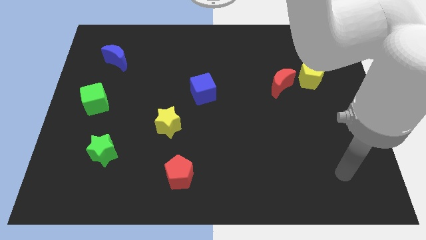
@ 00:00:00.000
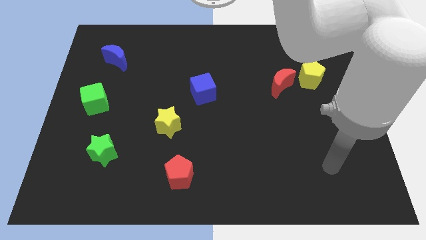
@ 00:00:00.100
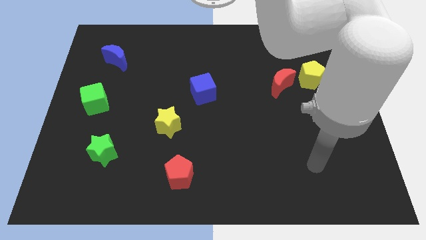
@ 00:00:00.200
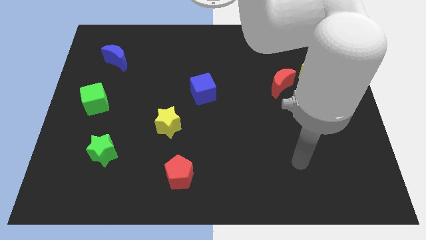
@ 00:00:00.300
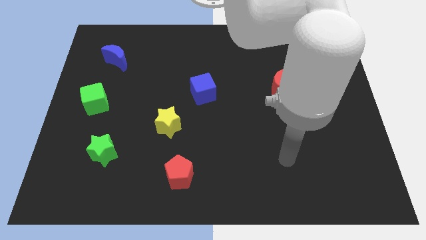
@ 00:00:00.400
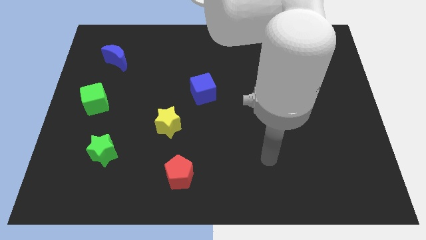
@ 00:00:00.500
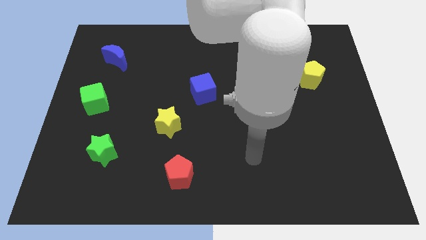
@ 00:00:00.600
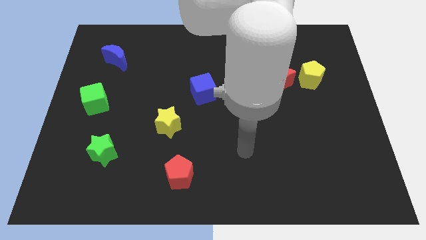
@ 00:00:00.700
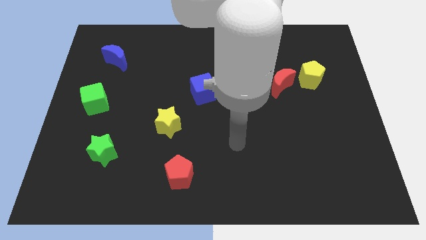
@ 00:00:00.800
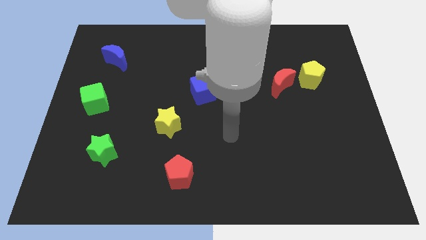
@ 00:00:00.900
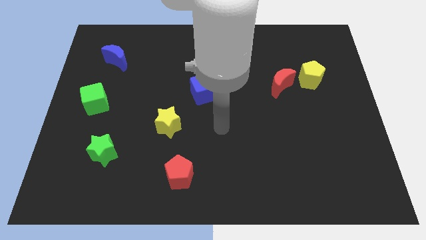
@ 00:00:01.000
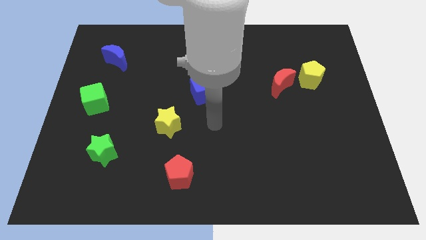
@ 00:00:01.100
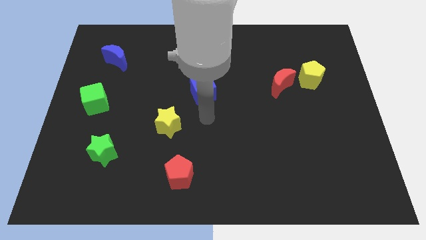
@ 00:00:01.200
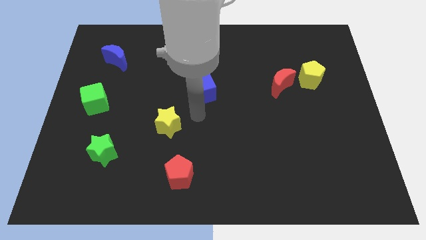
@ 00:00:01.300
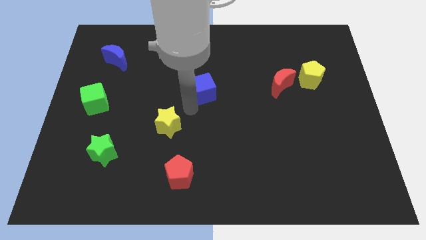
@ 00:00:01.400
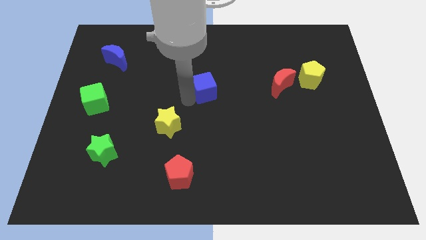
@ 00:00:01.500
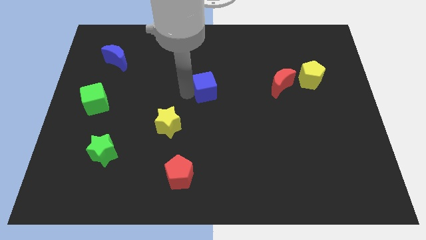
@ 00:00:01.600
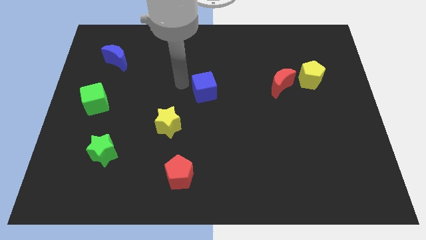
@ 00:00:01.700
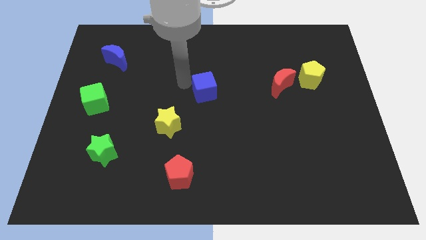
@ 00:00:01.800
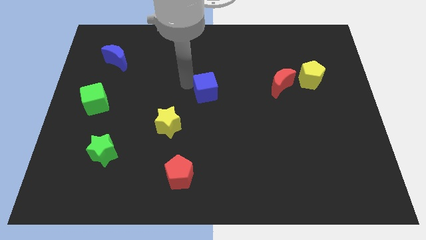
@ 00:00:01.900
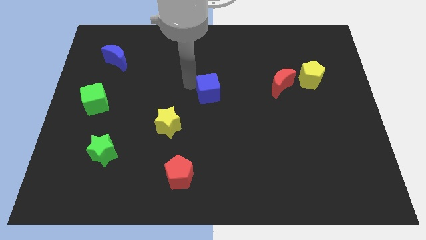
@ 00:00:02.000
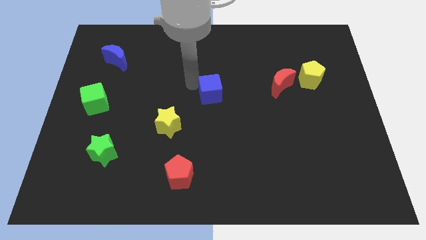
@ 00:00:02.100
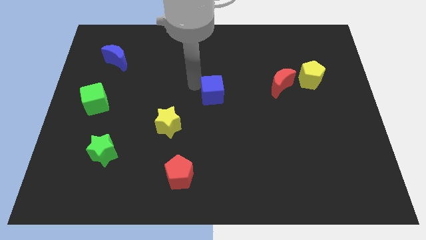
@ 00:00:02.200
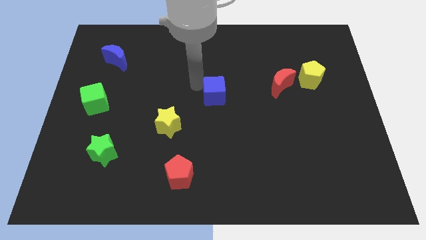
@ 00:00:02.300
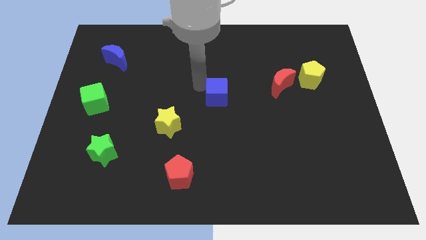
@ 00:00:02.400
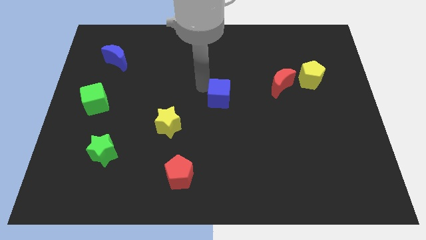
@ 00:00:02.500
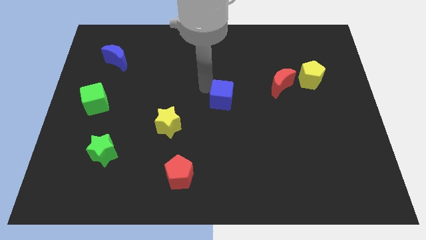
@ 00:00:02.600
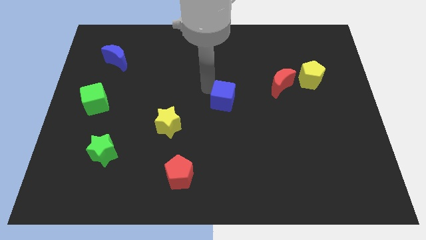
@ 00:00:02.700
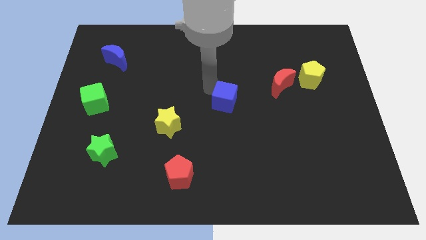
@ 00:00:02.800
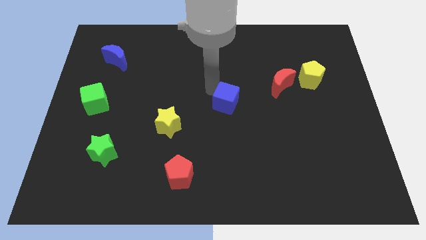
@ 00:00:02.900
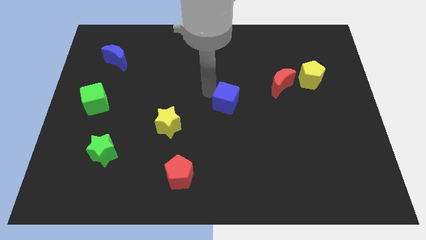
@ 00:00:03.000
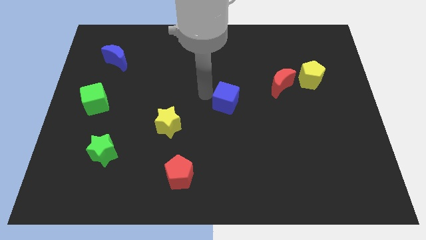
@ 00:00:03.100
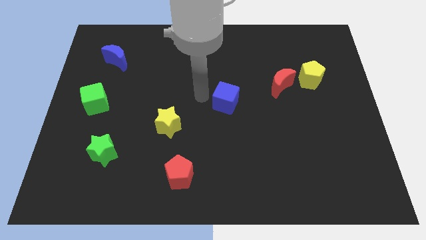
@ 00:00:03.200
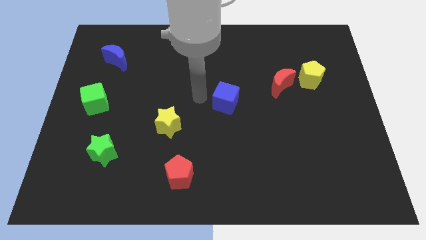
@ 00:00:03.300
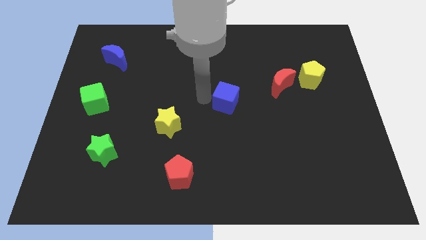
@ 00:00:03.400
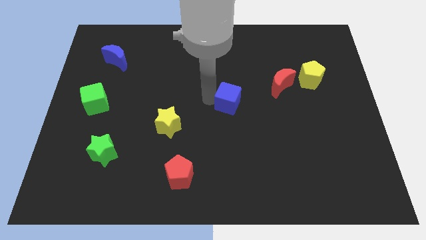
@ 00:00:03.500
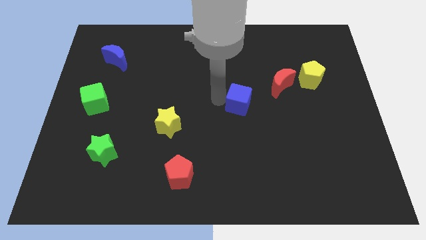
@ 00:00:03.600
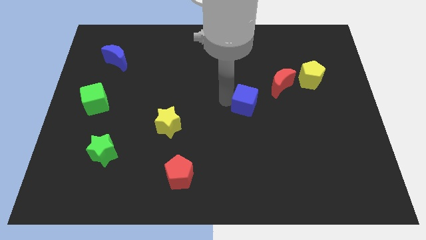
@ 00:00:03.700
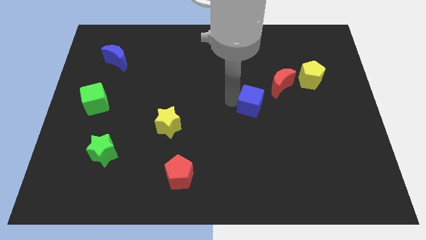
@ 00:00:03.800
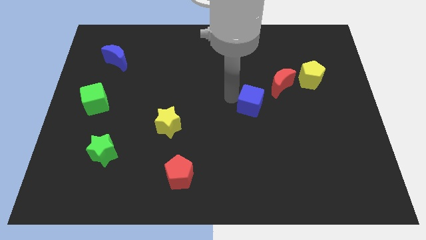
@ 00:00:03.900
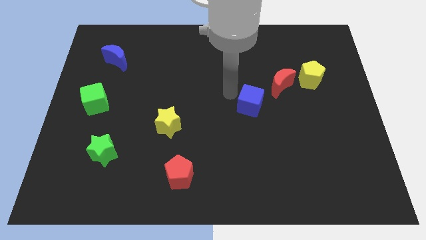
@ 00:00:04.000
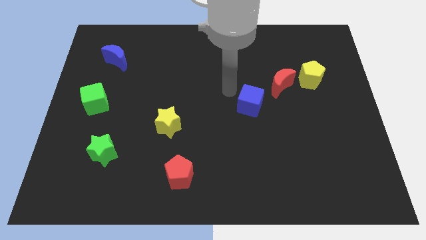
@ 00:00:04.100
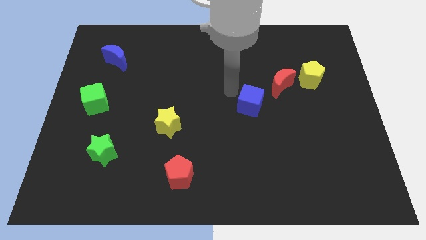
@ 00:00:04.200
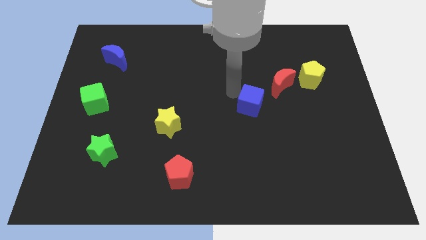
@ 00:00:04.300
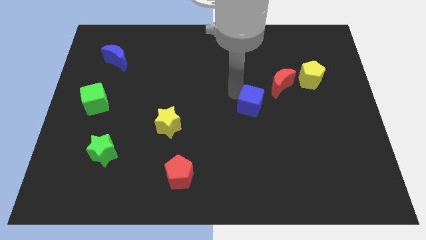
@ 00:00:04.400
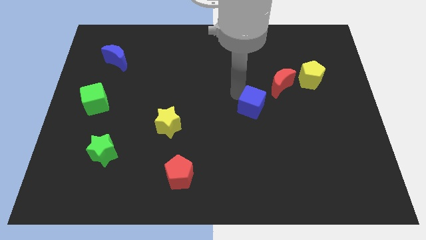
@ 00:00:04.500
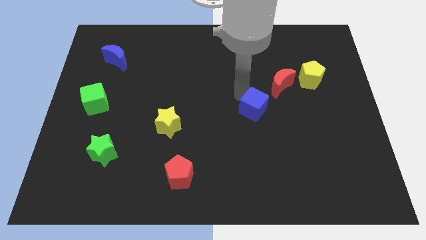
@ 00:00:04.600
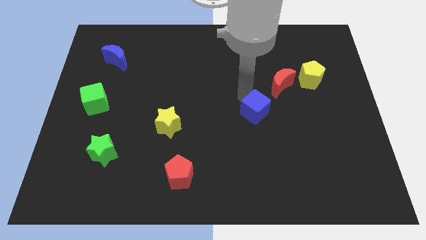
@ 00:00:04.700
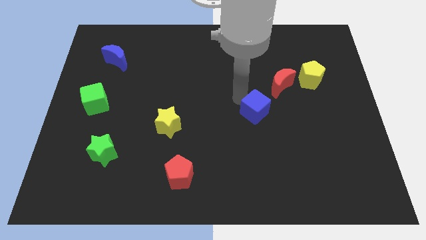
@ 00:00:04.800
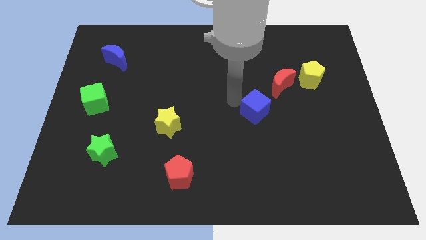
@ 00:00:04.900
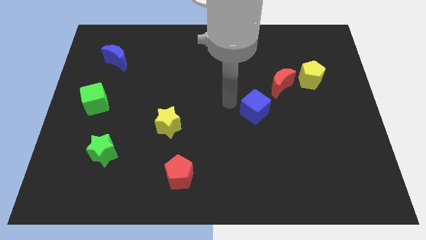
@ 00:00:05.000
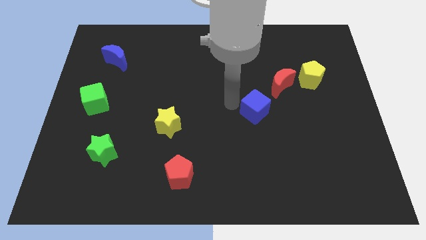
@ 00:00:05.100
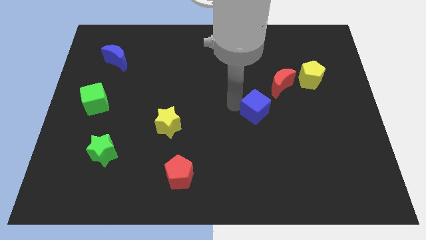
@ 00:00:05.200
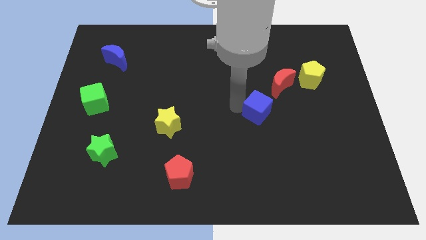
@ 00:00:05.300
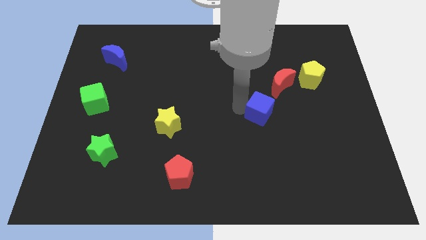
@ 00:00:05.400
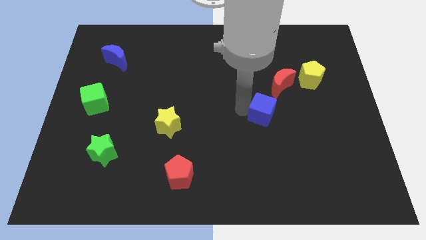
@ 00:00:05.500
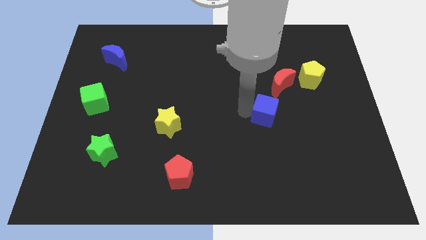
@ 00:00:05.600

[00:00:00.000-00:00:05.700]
slide the blue cube to the bottom side of the red moon

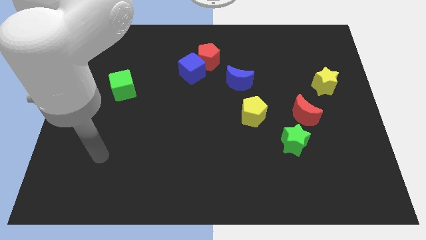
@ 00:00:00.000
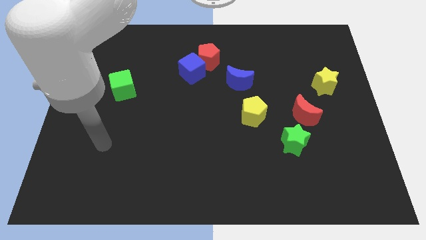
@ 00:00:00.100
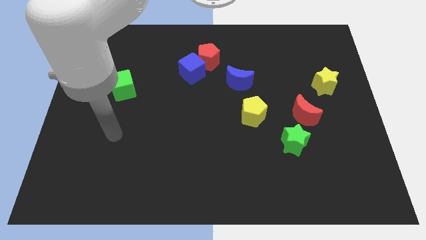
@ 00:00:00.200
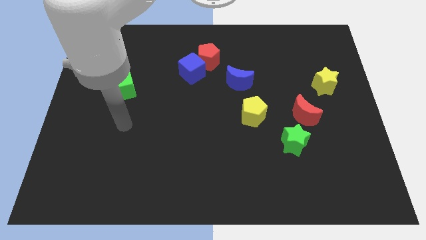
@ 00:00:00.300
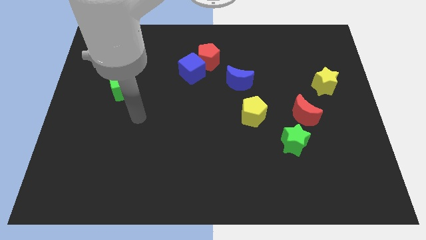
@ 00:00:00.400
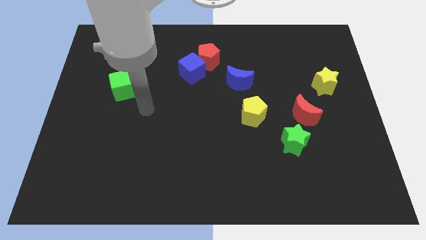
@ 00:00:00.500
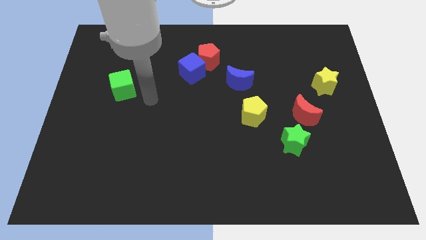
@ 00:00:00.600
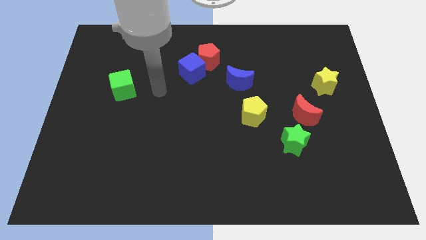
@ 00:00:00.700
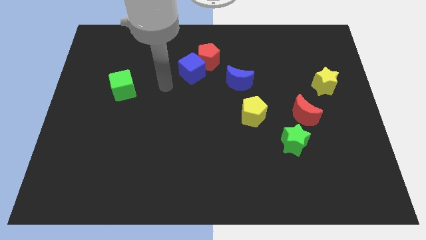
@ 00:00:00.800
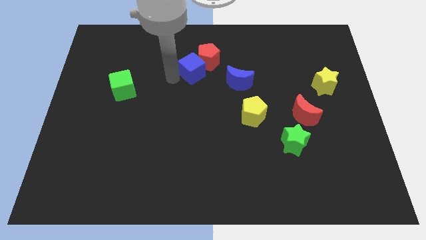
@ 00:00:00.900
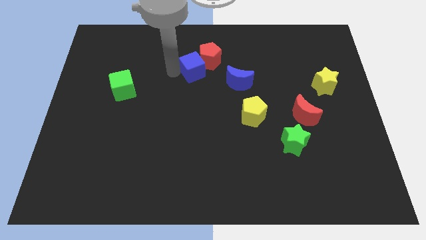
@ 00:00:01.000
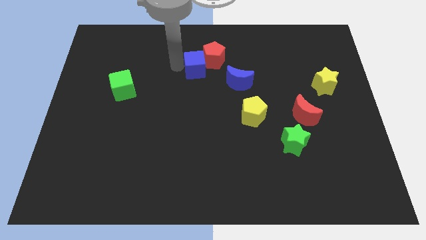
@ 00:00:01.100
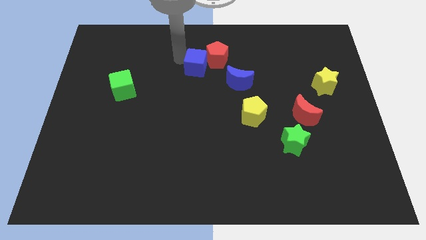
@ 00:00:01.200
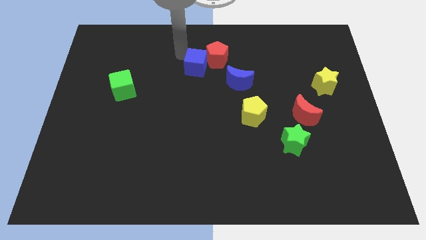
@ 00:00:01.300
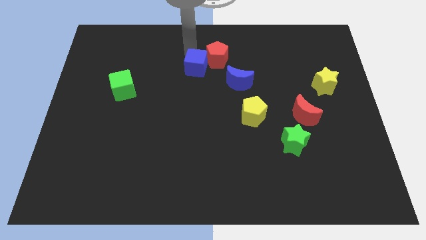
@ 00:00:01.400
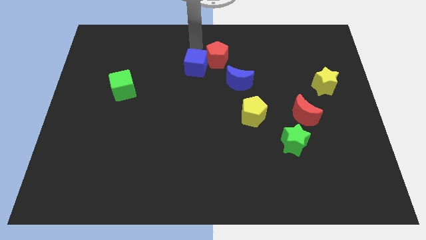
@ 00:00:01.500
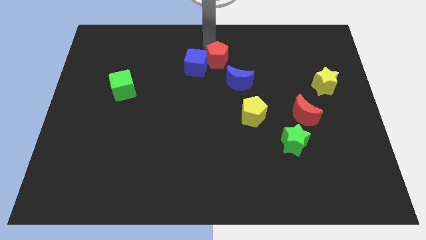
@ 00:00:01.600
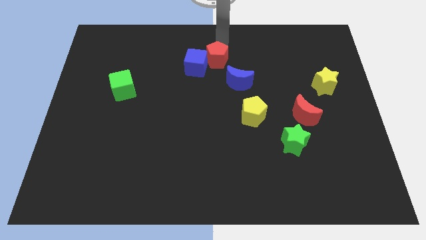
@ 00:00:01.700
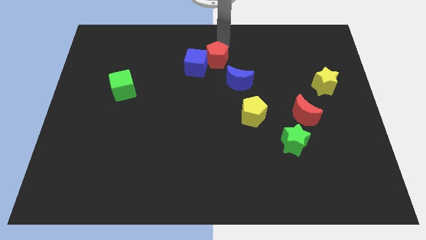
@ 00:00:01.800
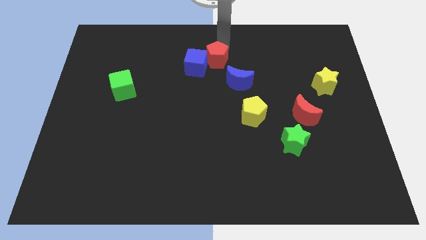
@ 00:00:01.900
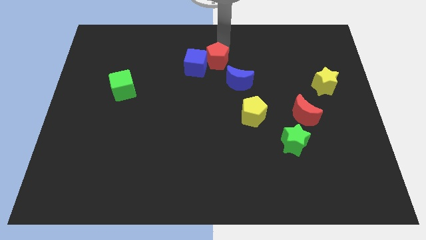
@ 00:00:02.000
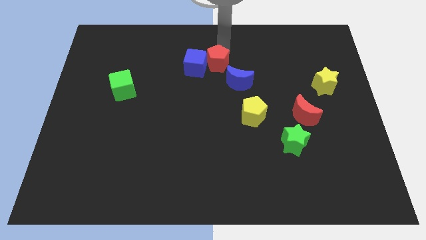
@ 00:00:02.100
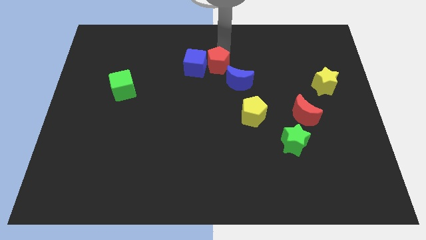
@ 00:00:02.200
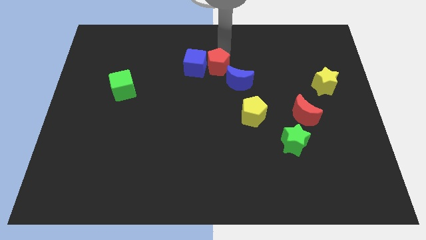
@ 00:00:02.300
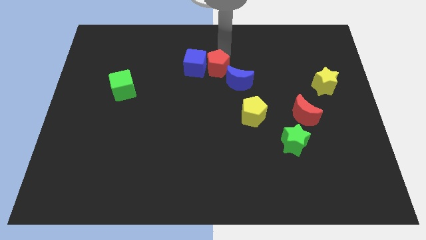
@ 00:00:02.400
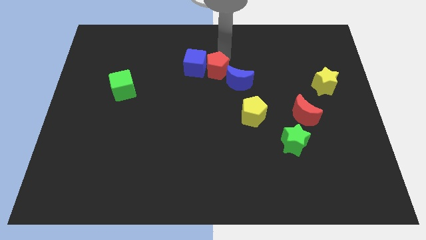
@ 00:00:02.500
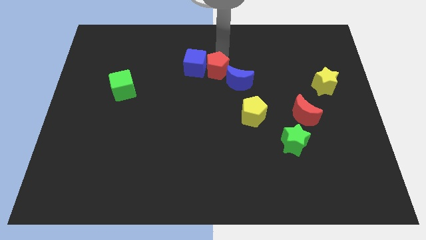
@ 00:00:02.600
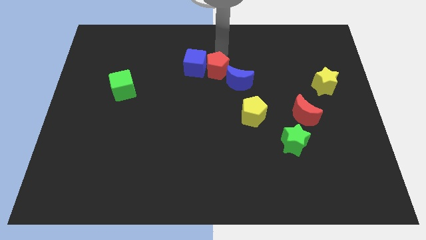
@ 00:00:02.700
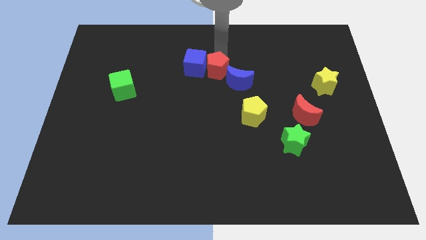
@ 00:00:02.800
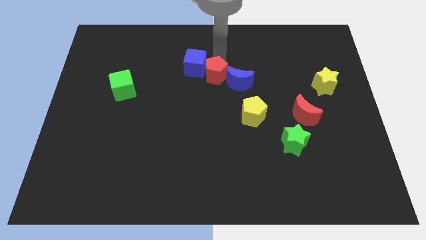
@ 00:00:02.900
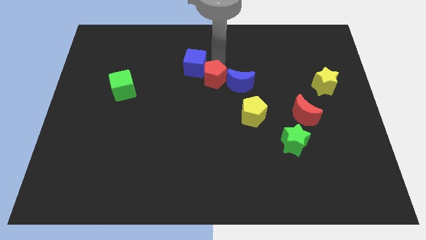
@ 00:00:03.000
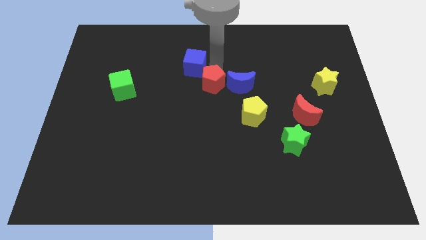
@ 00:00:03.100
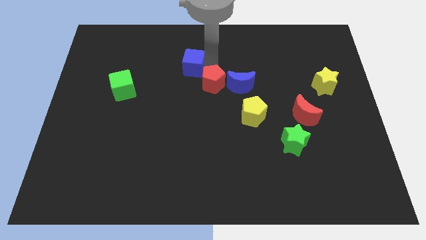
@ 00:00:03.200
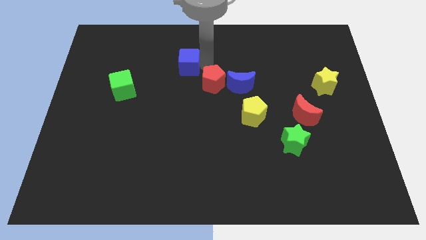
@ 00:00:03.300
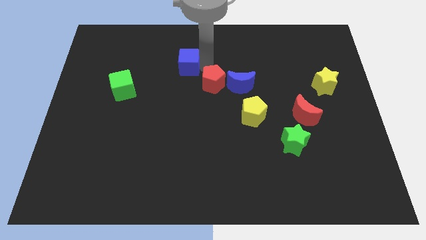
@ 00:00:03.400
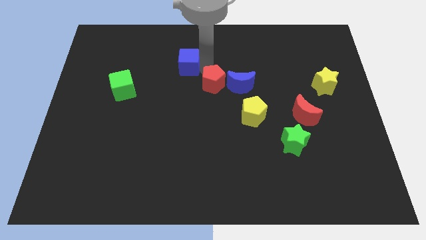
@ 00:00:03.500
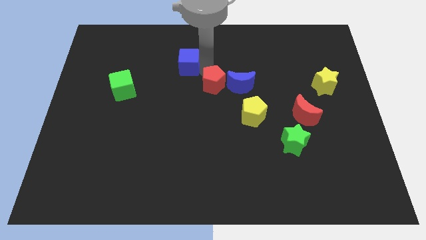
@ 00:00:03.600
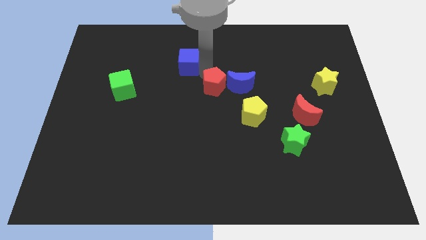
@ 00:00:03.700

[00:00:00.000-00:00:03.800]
push the red pentagon diagonally down and to the left of the blue moon
